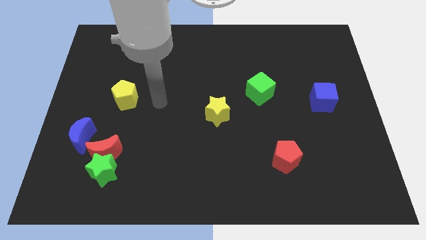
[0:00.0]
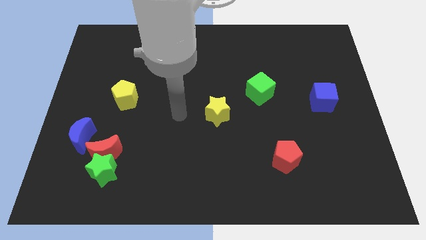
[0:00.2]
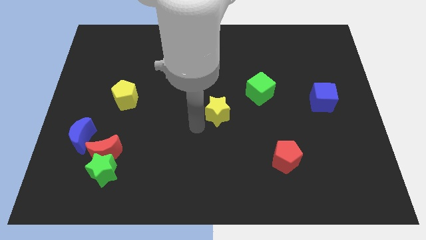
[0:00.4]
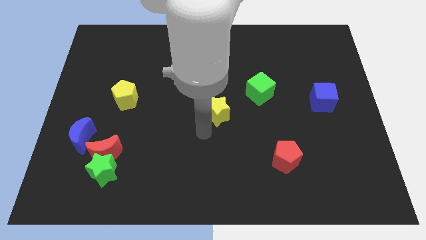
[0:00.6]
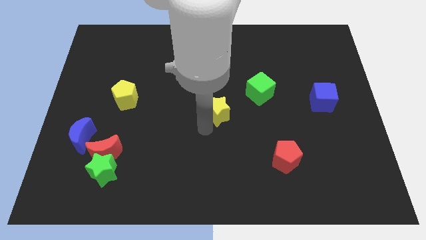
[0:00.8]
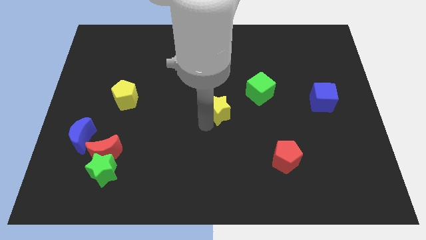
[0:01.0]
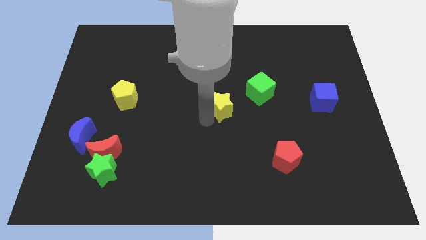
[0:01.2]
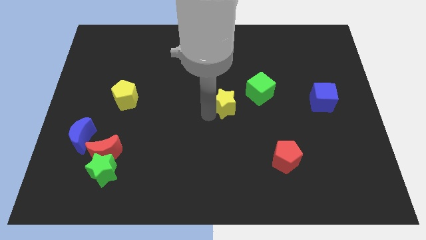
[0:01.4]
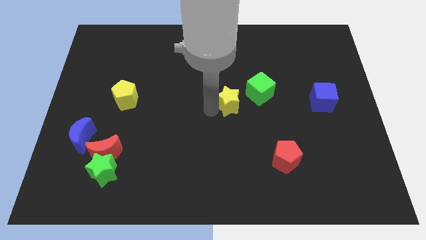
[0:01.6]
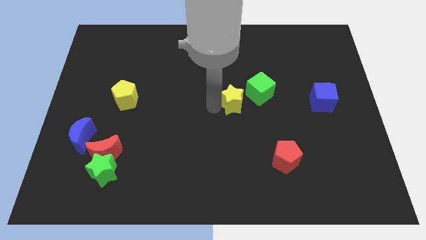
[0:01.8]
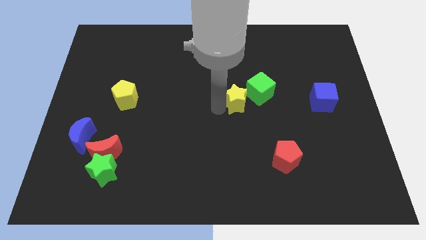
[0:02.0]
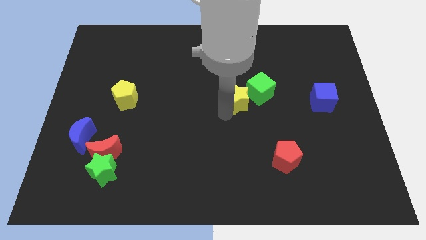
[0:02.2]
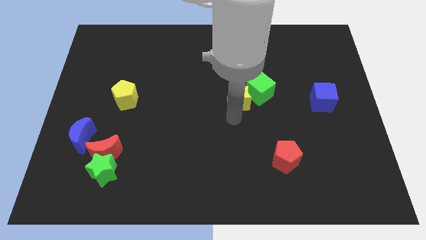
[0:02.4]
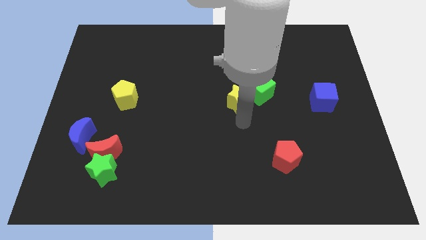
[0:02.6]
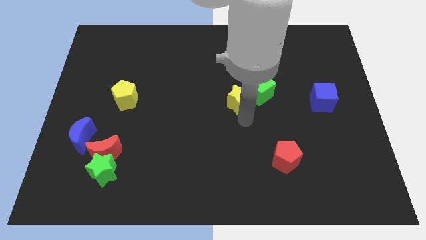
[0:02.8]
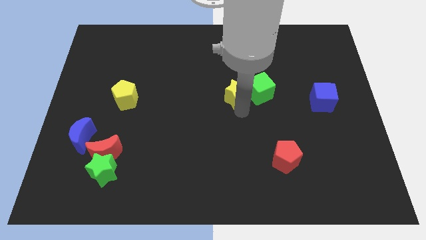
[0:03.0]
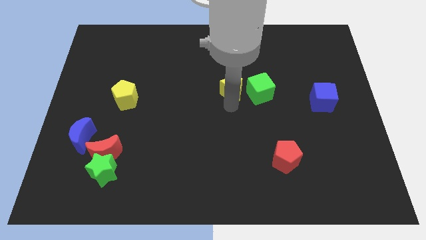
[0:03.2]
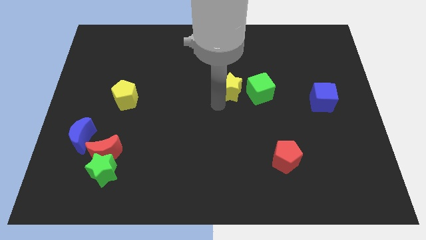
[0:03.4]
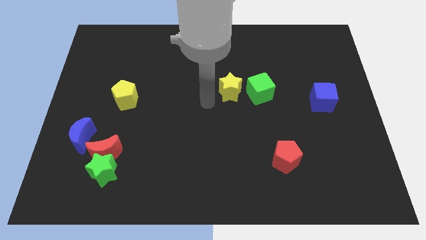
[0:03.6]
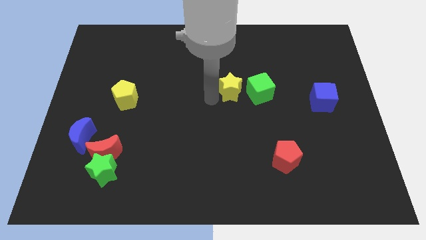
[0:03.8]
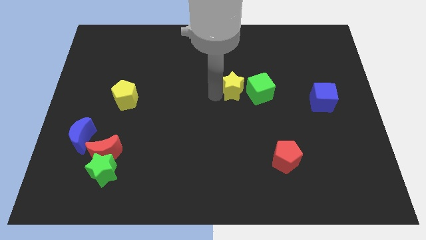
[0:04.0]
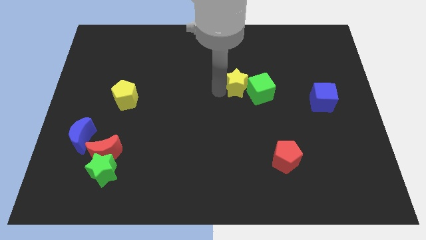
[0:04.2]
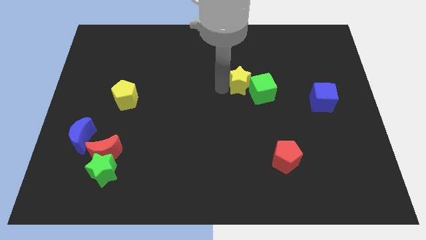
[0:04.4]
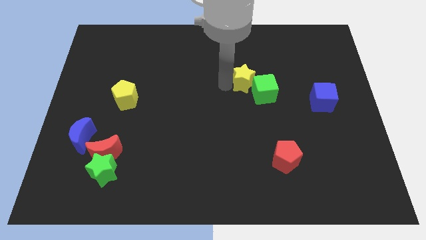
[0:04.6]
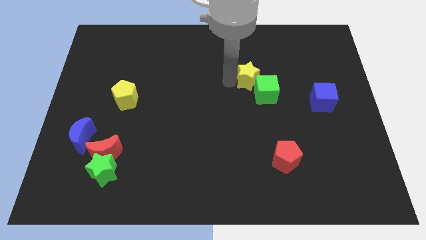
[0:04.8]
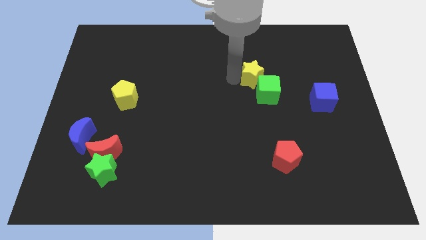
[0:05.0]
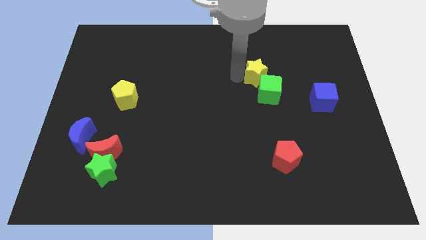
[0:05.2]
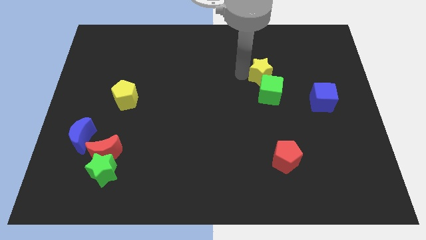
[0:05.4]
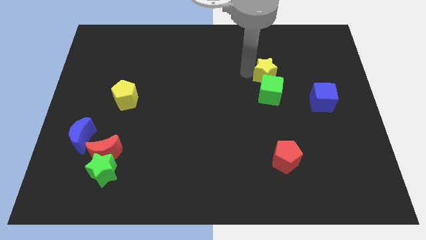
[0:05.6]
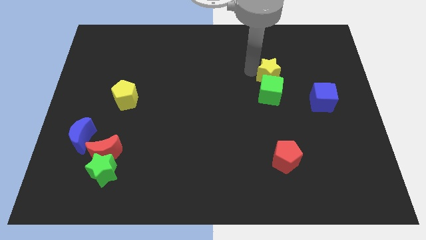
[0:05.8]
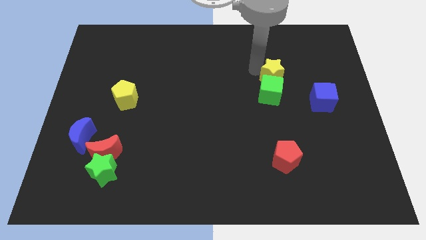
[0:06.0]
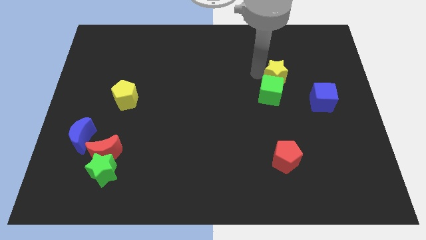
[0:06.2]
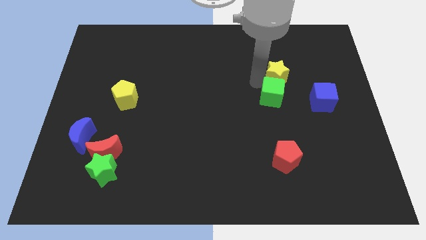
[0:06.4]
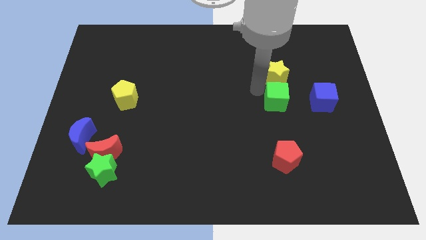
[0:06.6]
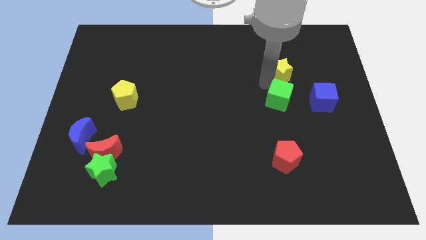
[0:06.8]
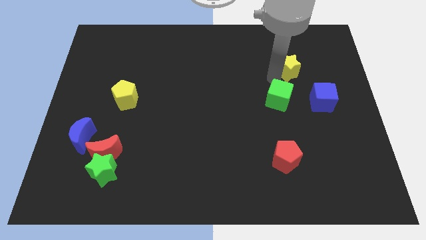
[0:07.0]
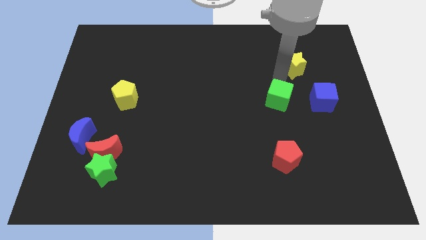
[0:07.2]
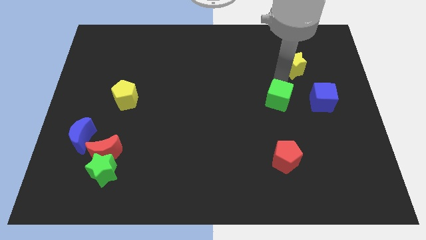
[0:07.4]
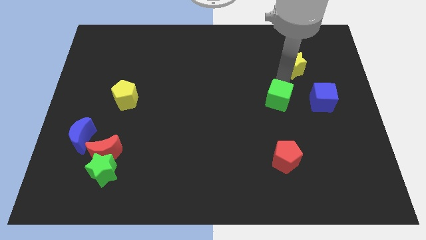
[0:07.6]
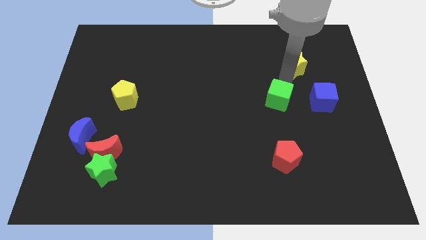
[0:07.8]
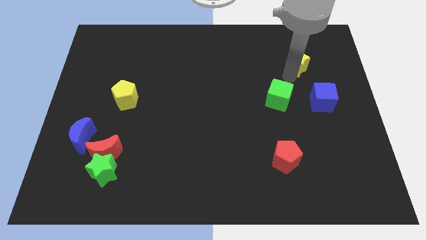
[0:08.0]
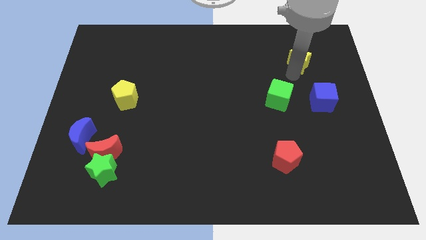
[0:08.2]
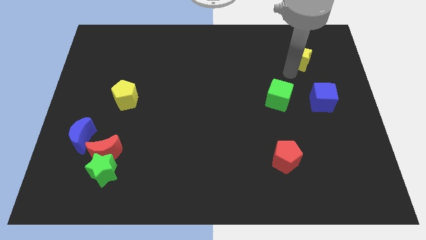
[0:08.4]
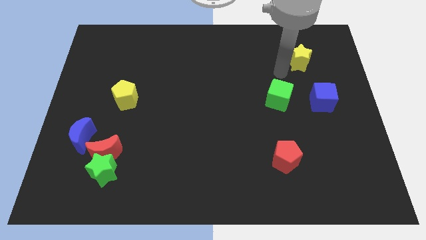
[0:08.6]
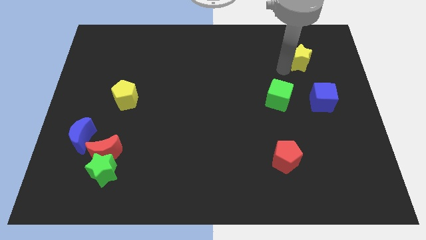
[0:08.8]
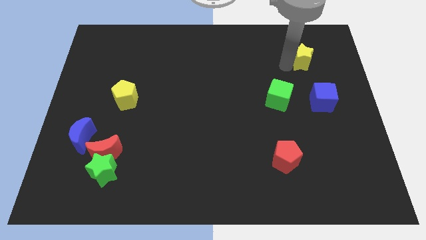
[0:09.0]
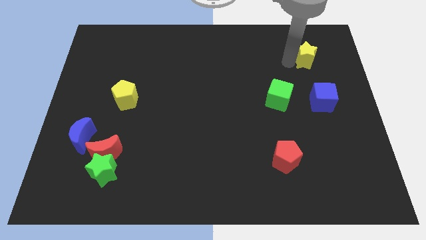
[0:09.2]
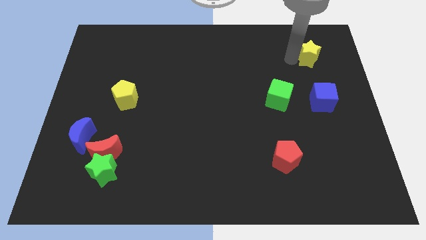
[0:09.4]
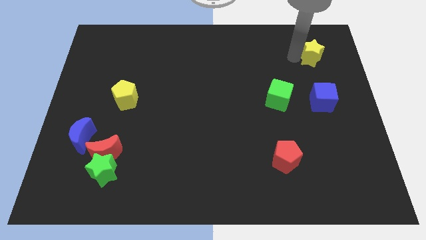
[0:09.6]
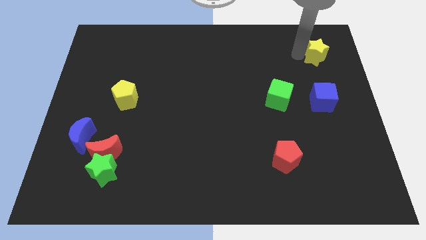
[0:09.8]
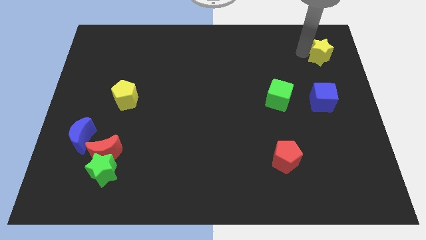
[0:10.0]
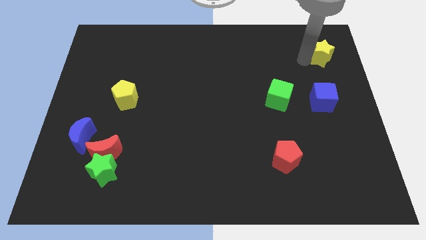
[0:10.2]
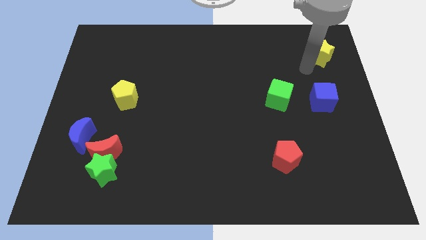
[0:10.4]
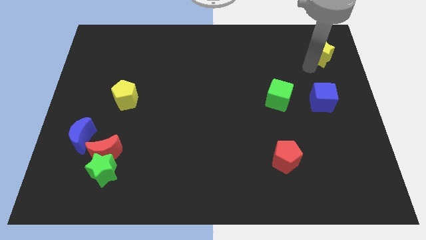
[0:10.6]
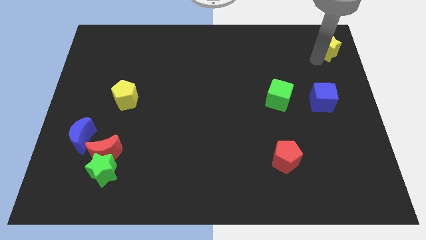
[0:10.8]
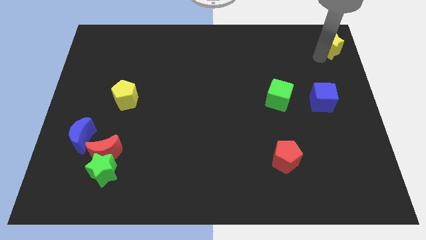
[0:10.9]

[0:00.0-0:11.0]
push the yellow star to the top right of the board
